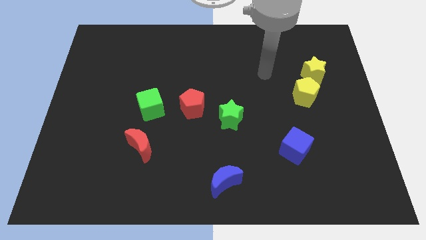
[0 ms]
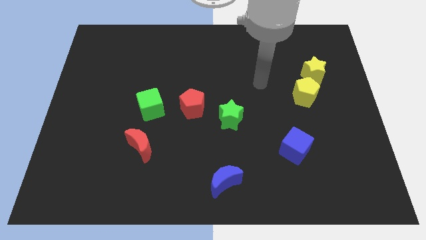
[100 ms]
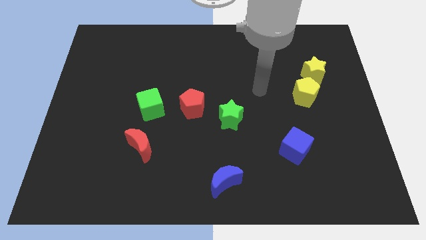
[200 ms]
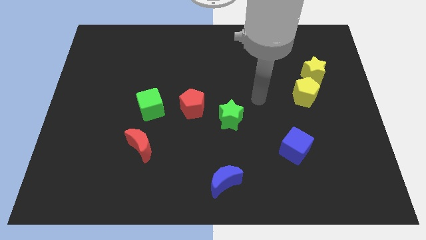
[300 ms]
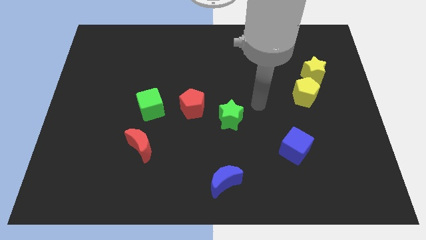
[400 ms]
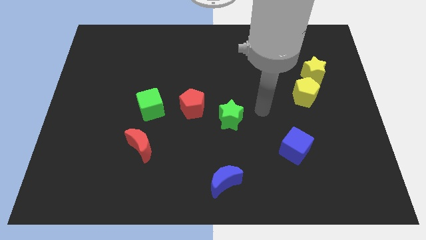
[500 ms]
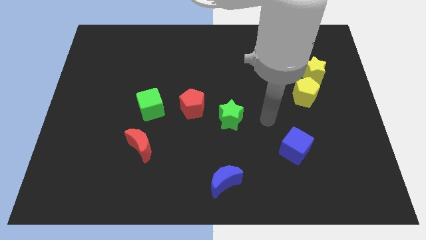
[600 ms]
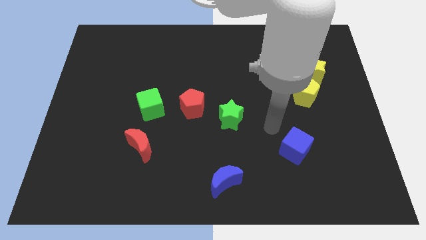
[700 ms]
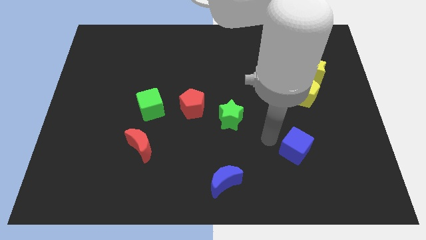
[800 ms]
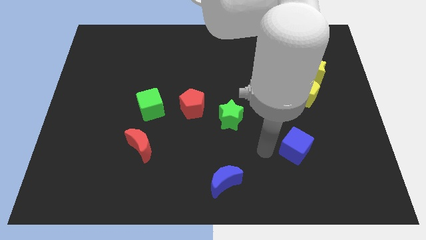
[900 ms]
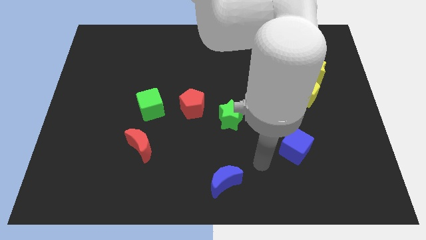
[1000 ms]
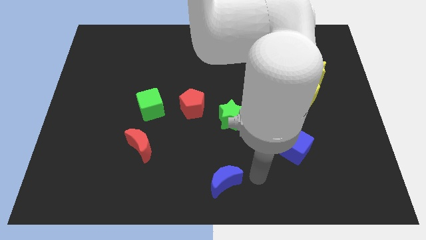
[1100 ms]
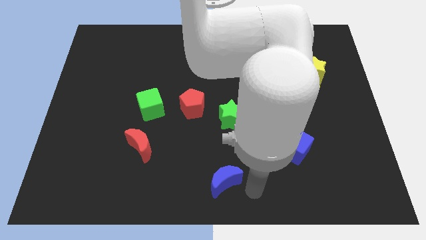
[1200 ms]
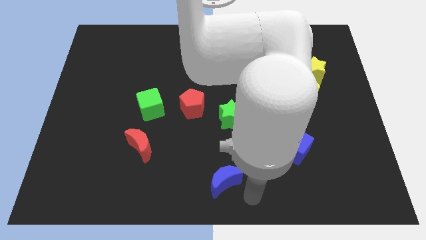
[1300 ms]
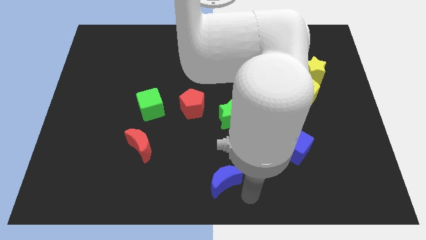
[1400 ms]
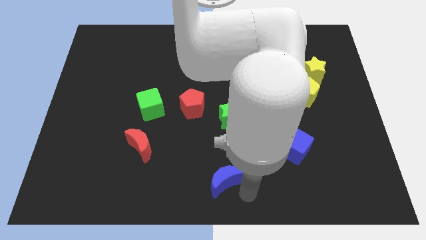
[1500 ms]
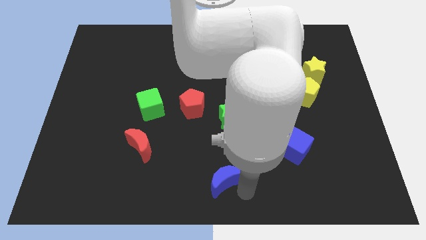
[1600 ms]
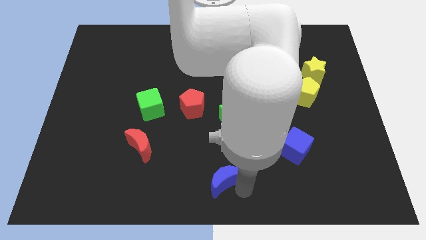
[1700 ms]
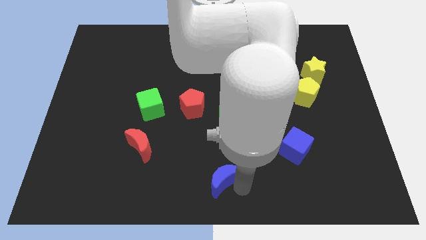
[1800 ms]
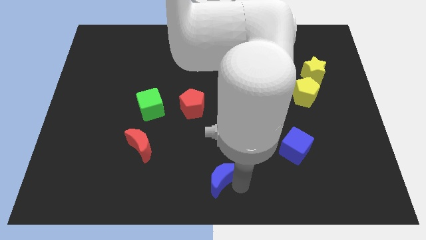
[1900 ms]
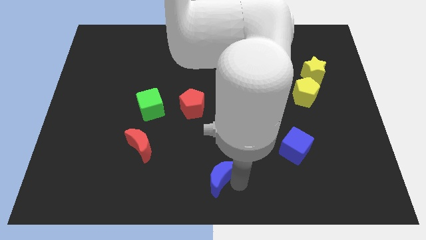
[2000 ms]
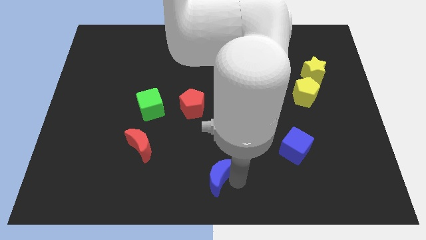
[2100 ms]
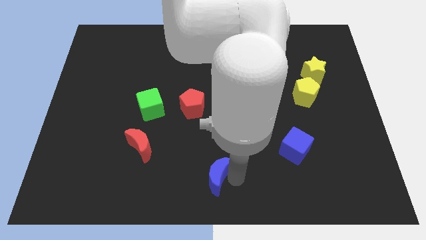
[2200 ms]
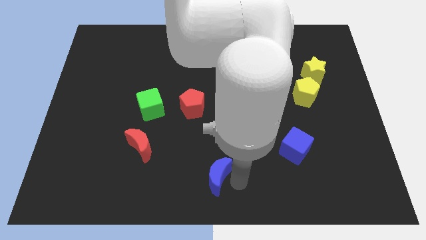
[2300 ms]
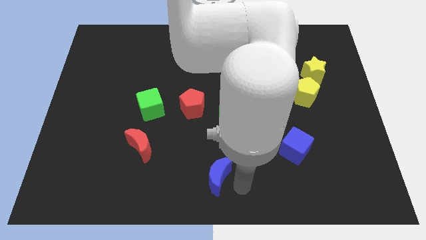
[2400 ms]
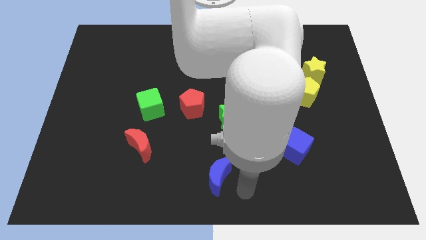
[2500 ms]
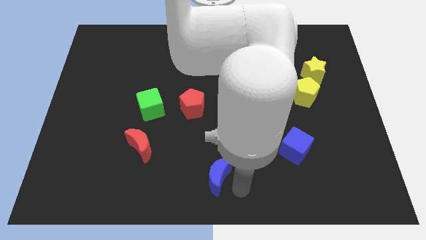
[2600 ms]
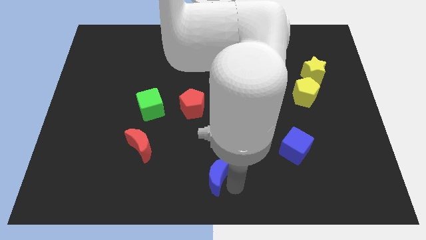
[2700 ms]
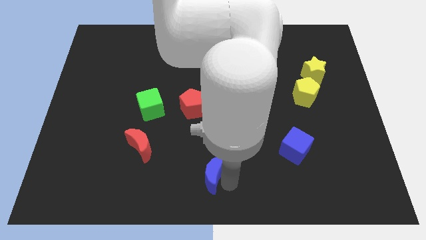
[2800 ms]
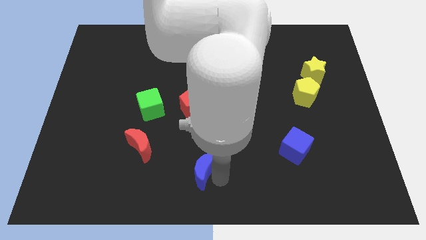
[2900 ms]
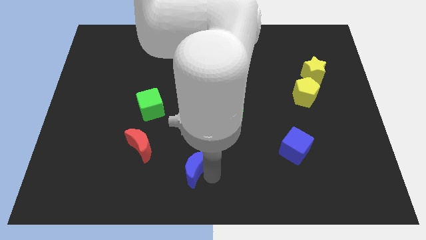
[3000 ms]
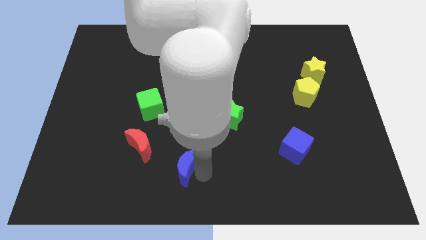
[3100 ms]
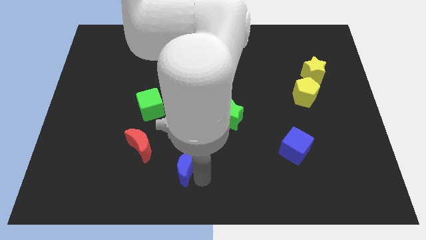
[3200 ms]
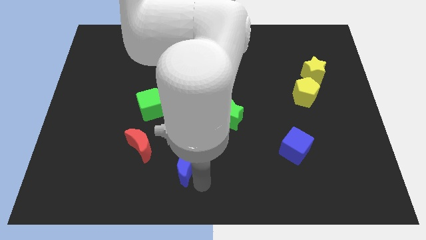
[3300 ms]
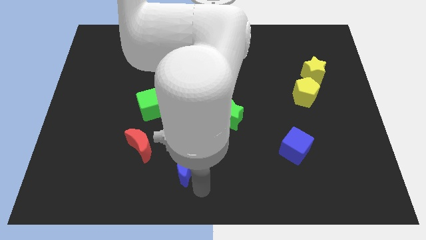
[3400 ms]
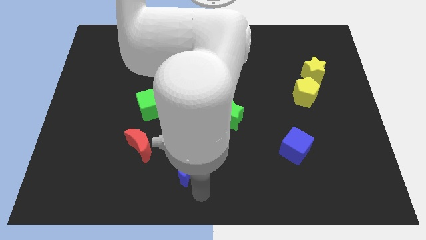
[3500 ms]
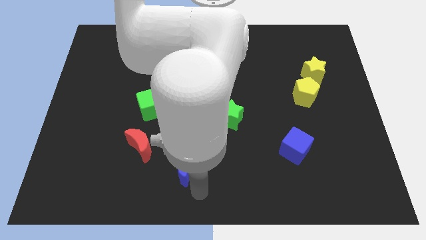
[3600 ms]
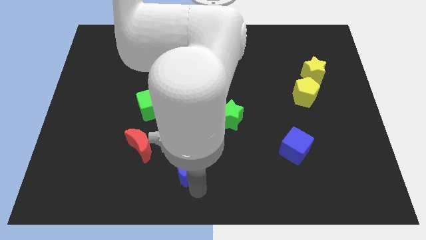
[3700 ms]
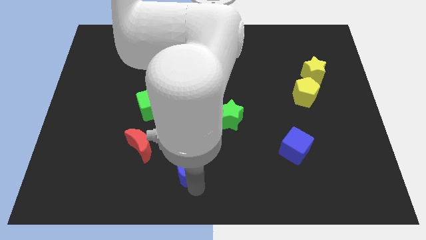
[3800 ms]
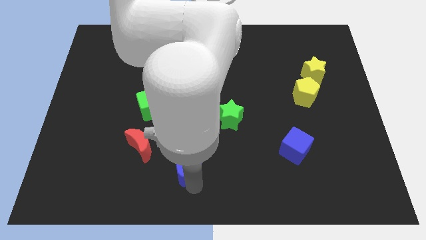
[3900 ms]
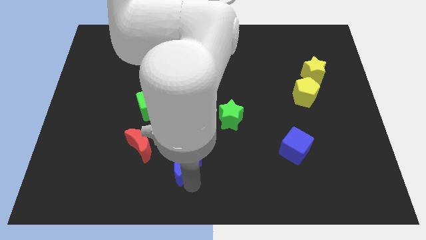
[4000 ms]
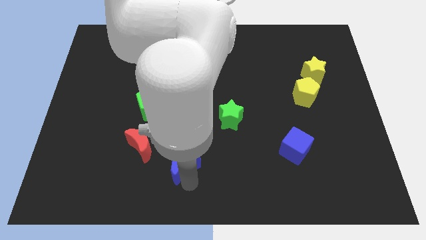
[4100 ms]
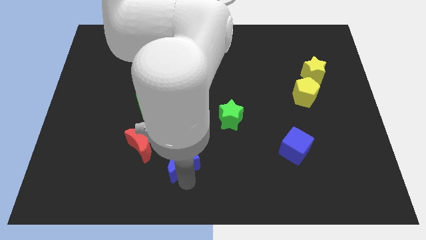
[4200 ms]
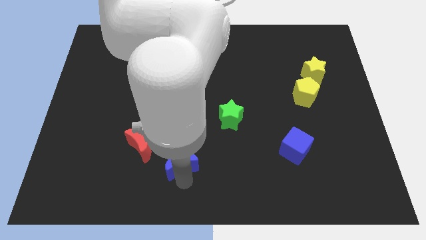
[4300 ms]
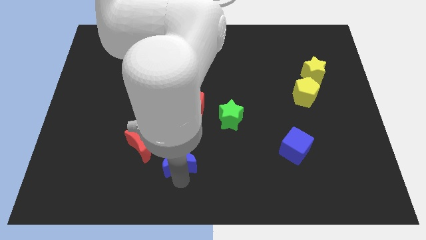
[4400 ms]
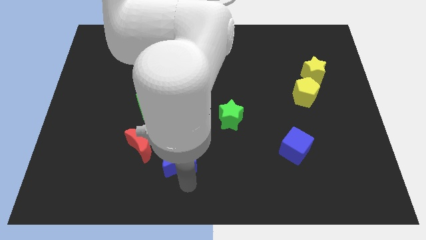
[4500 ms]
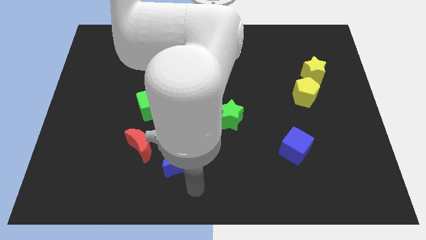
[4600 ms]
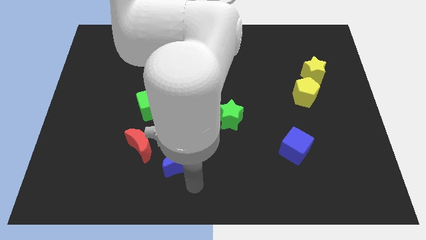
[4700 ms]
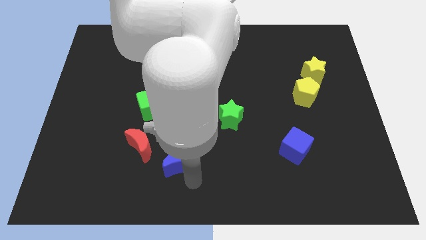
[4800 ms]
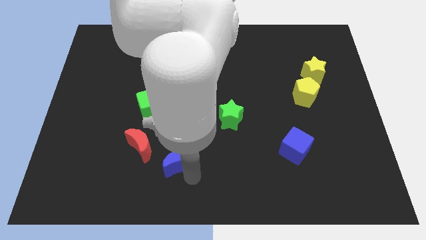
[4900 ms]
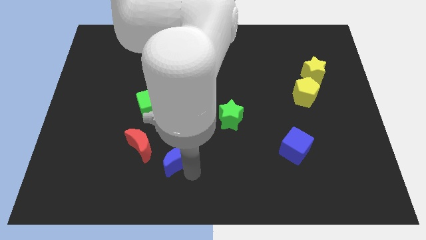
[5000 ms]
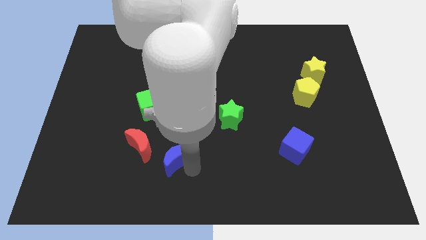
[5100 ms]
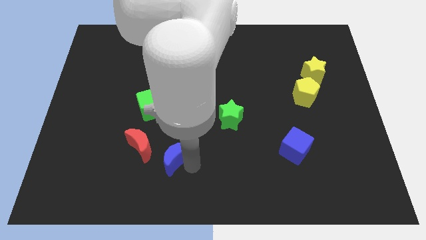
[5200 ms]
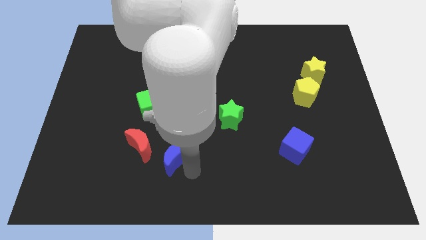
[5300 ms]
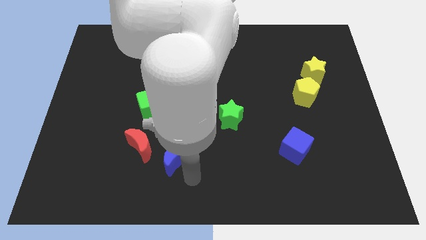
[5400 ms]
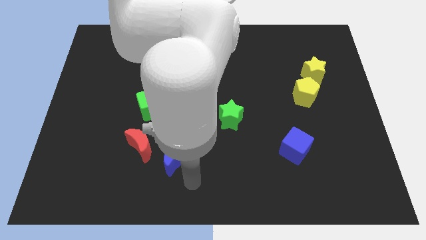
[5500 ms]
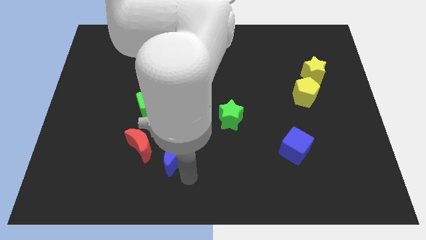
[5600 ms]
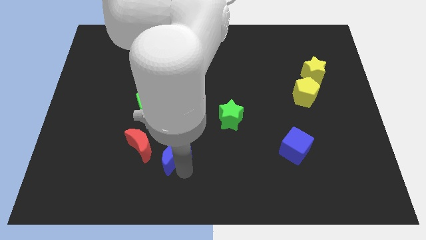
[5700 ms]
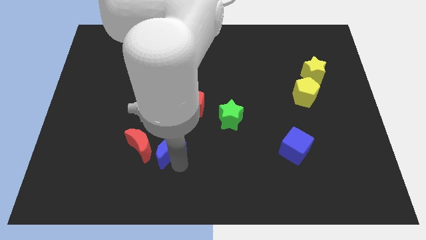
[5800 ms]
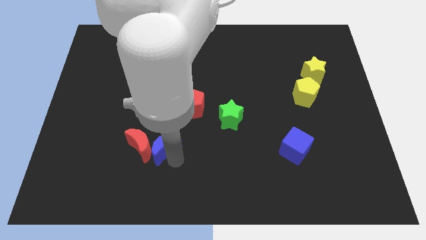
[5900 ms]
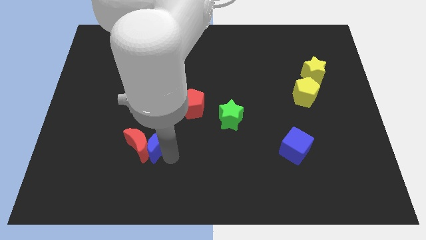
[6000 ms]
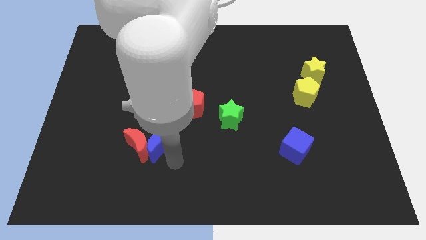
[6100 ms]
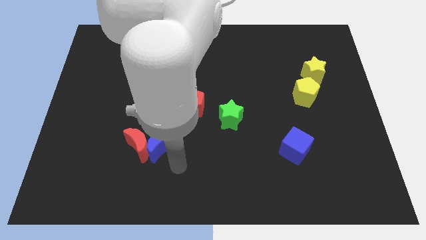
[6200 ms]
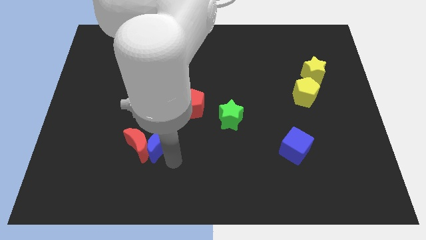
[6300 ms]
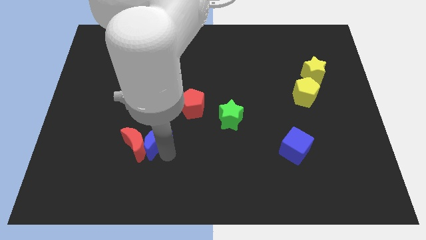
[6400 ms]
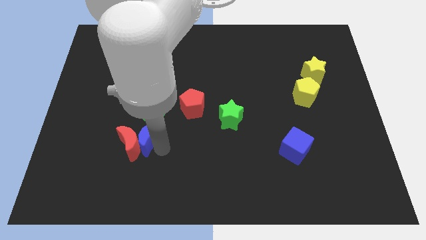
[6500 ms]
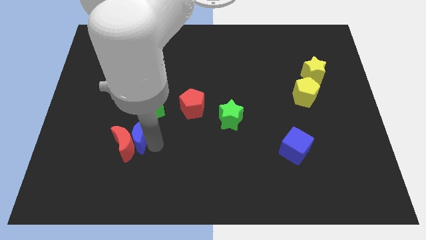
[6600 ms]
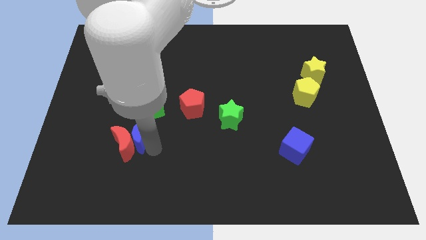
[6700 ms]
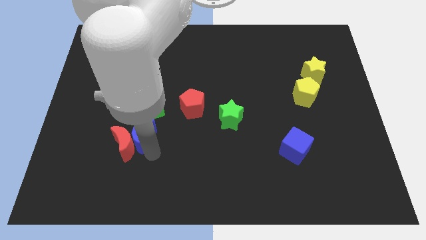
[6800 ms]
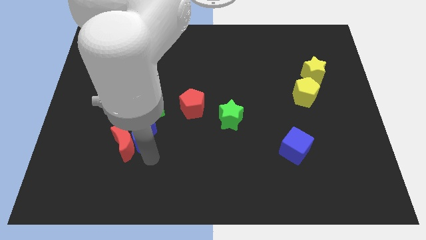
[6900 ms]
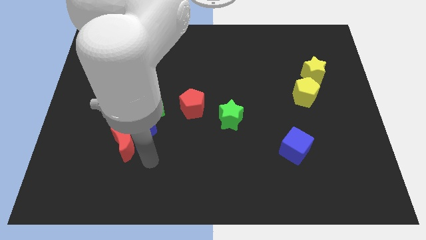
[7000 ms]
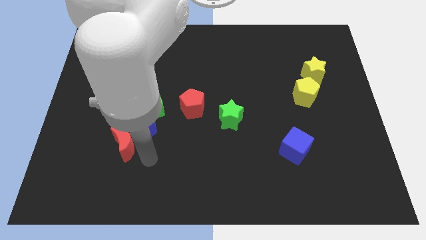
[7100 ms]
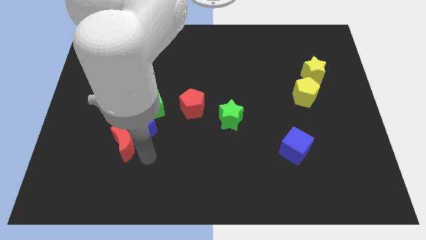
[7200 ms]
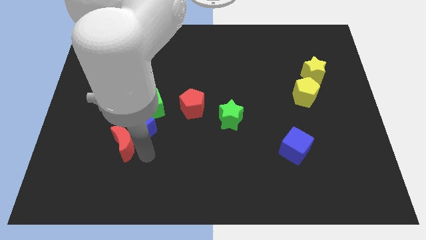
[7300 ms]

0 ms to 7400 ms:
push the blue moon diagonally upwards and to the left

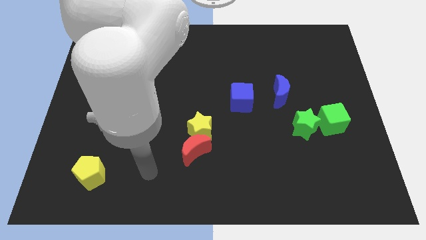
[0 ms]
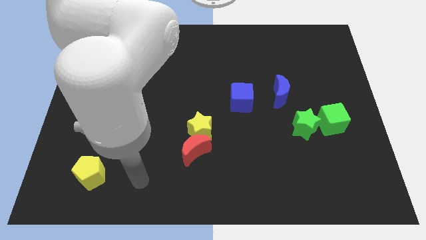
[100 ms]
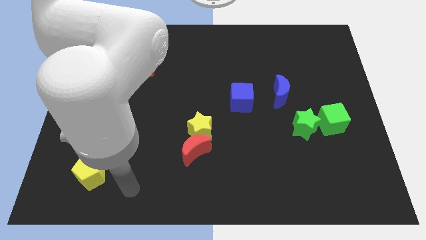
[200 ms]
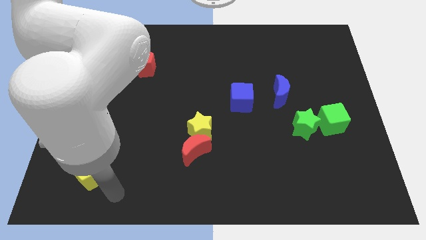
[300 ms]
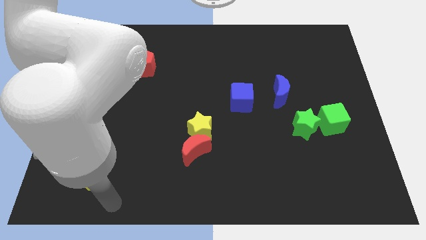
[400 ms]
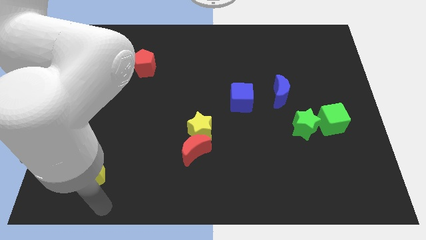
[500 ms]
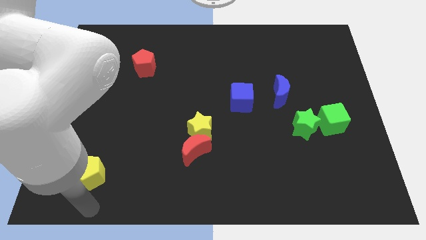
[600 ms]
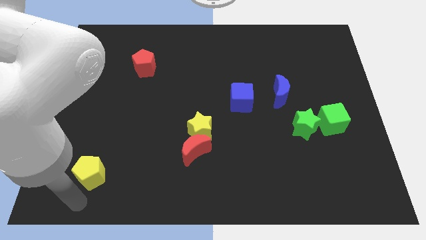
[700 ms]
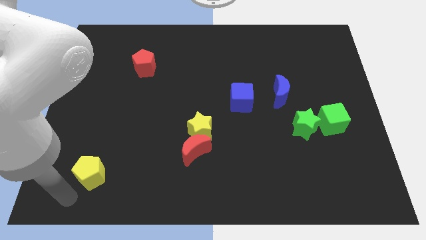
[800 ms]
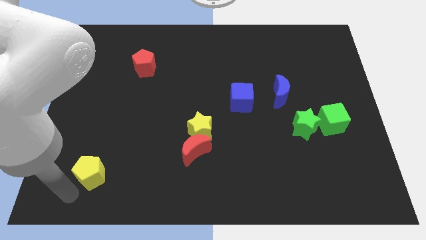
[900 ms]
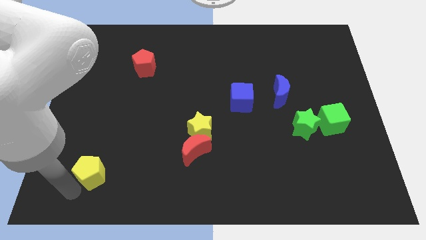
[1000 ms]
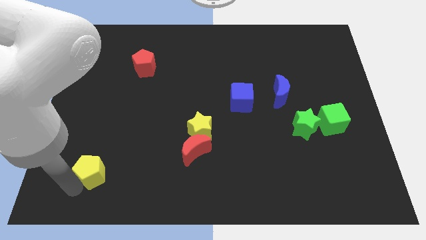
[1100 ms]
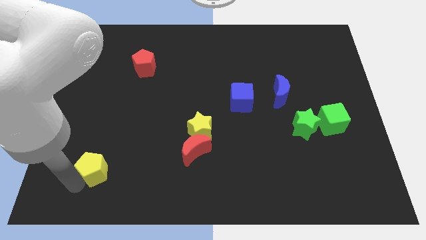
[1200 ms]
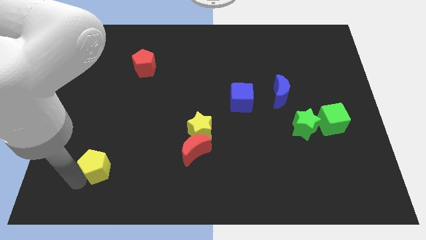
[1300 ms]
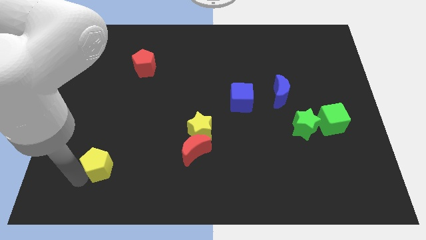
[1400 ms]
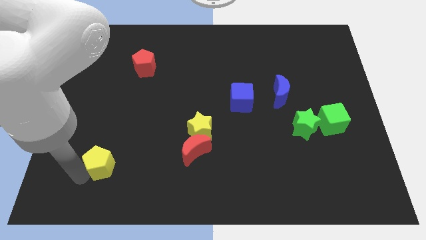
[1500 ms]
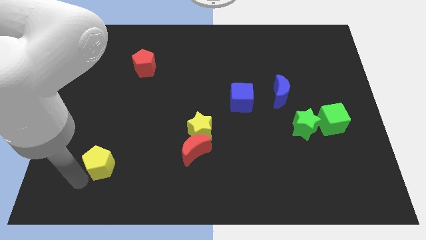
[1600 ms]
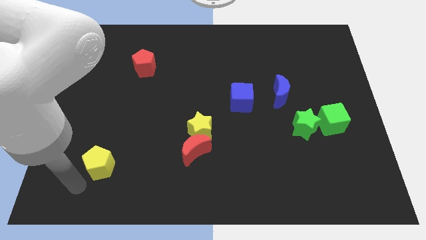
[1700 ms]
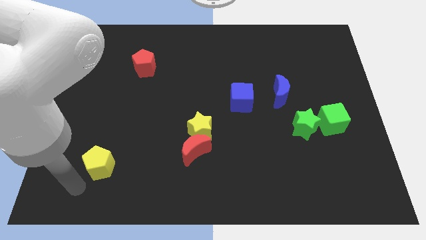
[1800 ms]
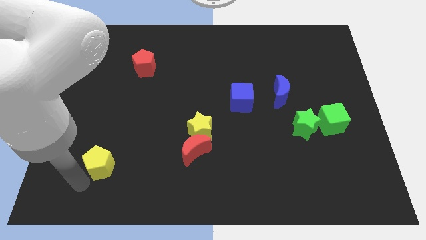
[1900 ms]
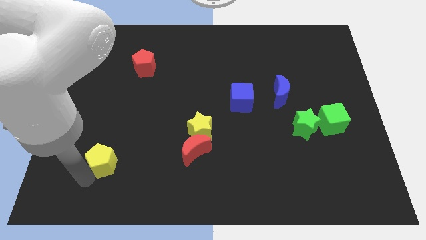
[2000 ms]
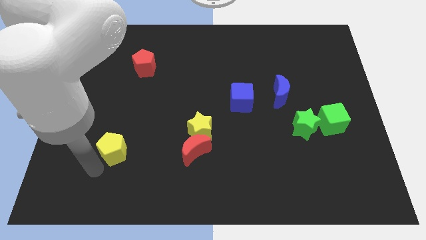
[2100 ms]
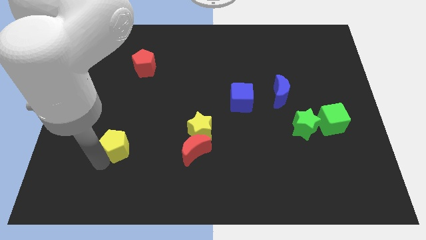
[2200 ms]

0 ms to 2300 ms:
slightly move the yellow pentagon up and to the right
